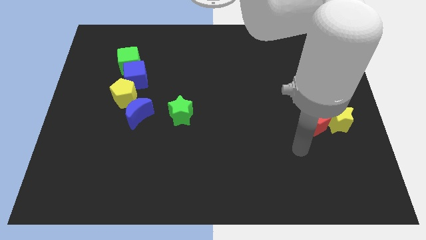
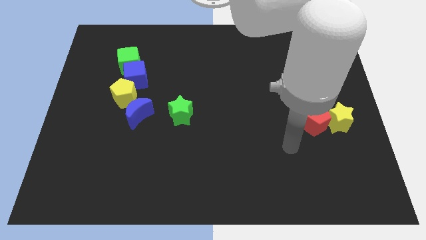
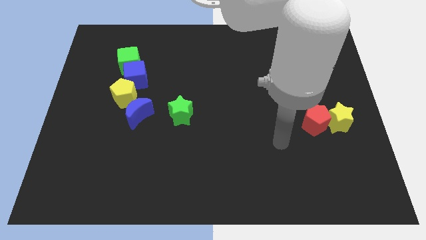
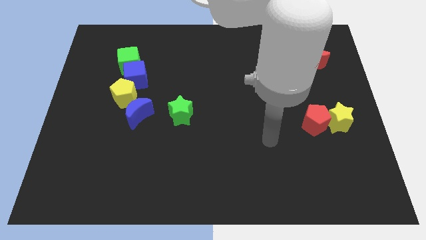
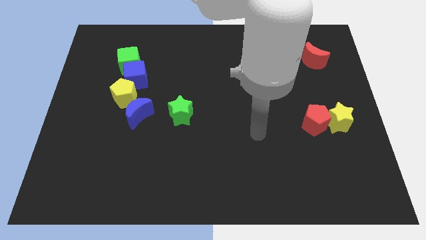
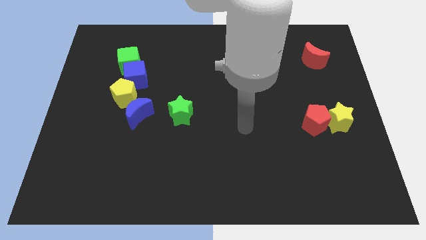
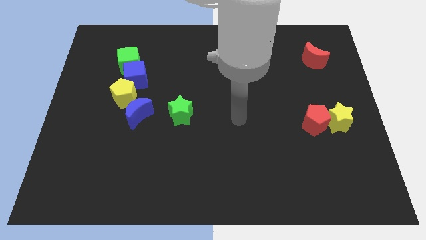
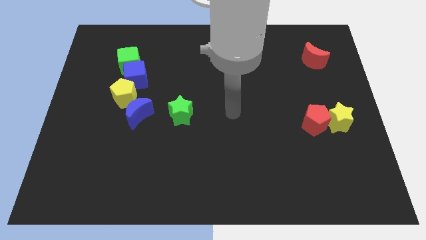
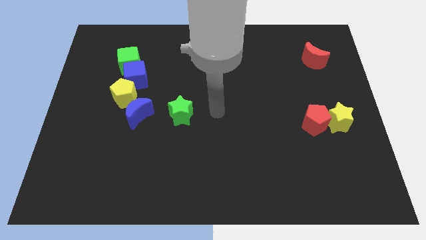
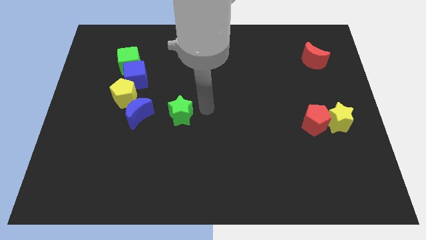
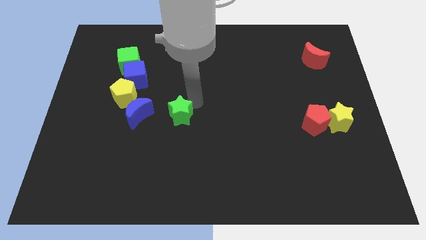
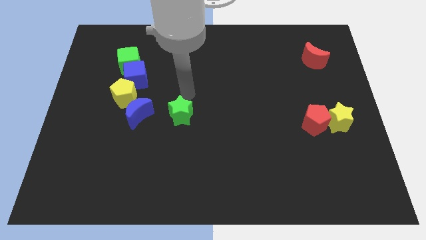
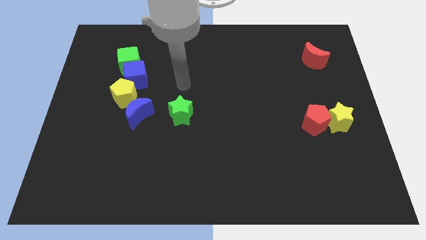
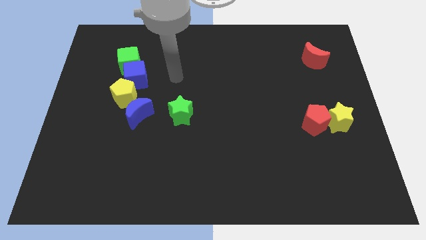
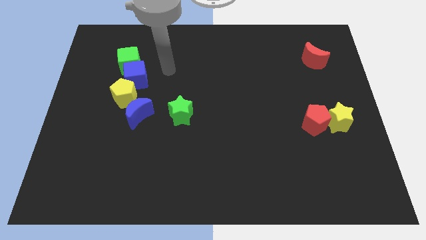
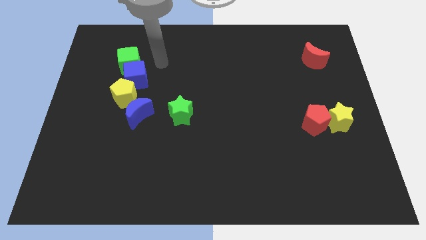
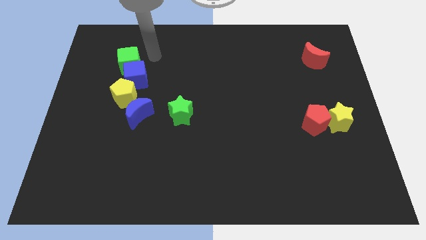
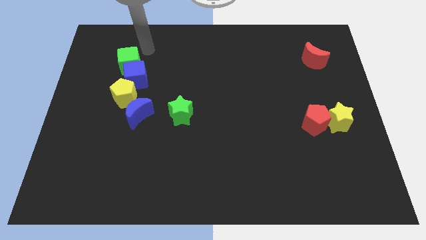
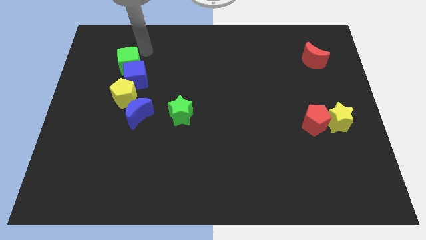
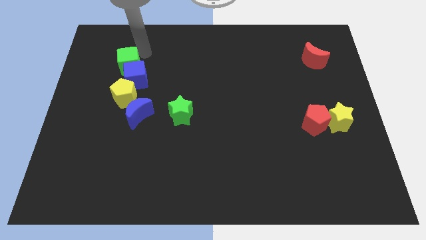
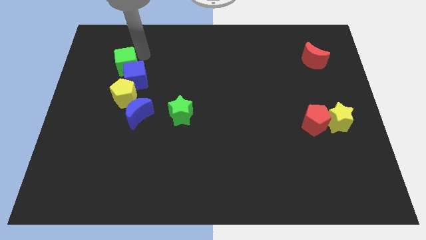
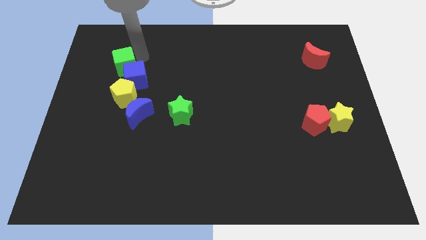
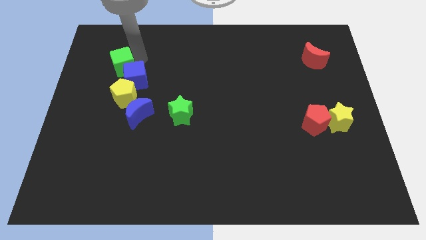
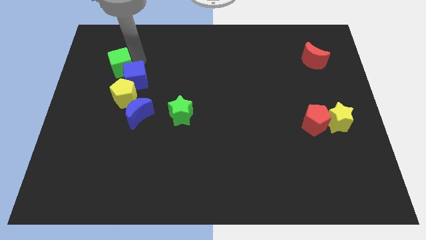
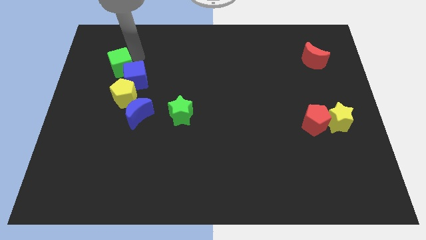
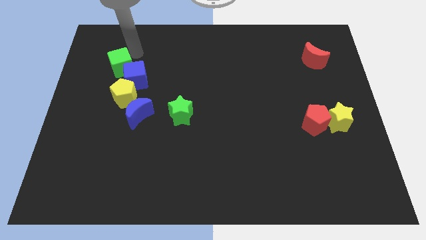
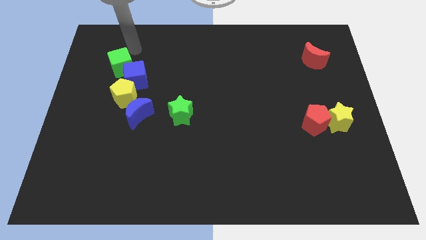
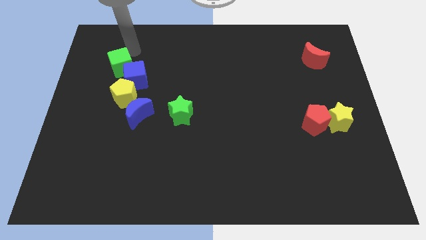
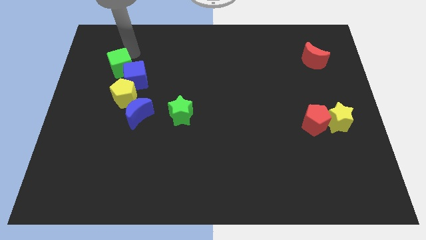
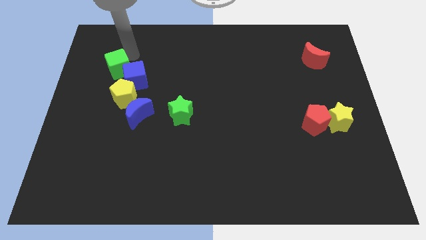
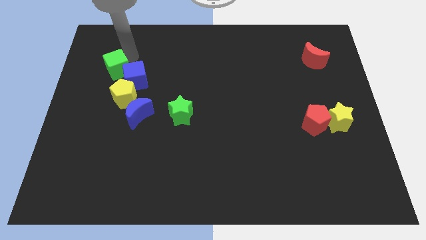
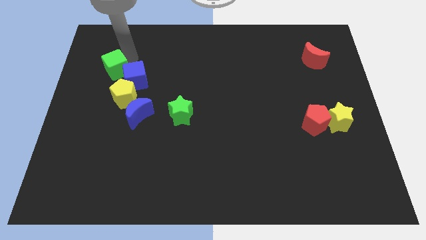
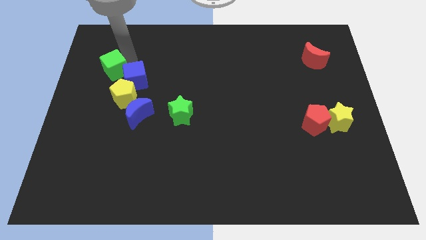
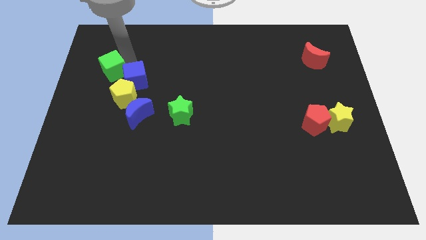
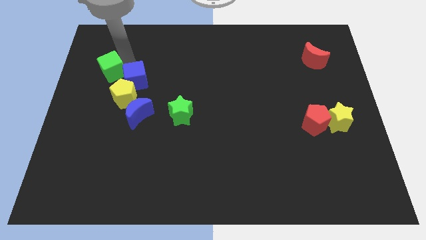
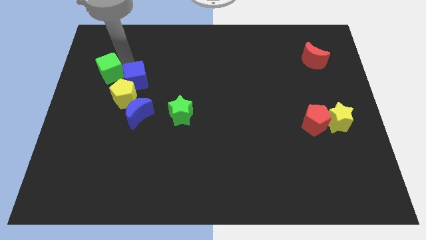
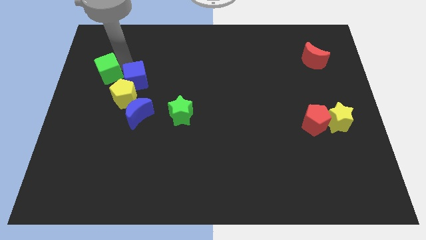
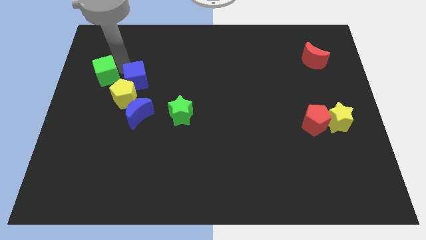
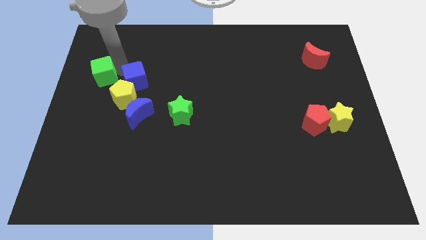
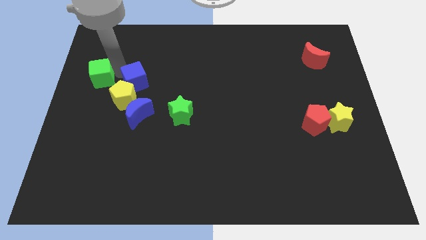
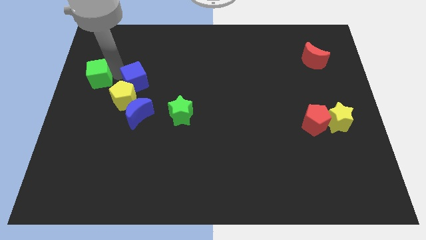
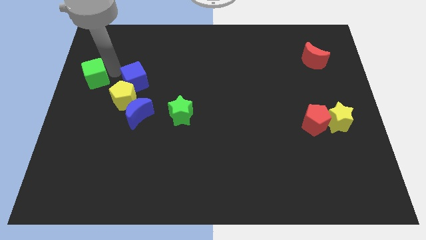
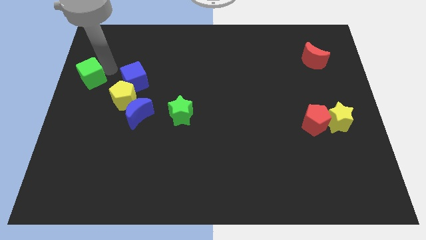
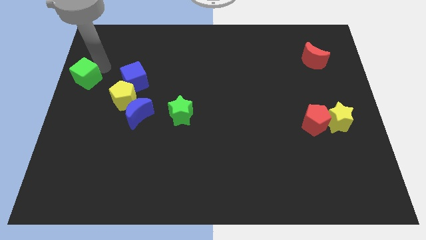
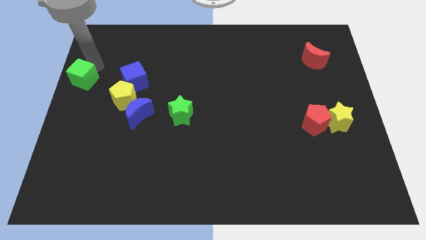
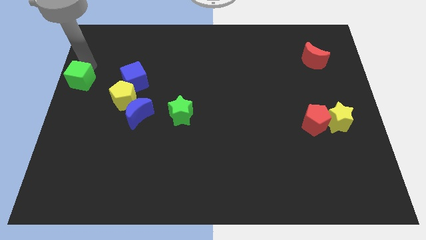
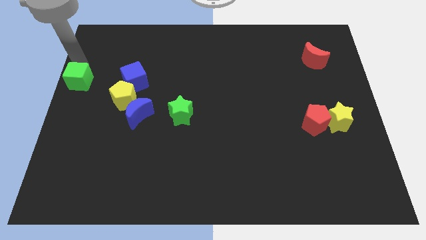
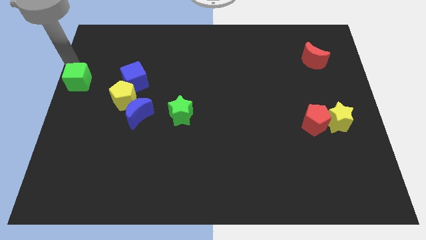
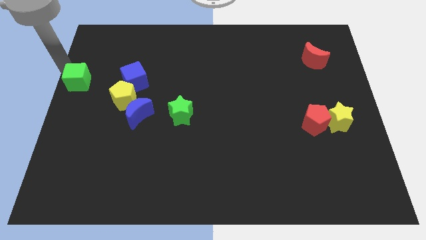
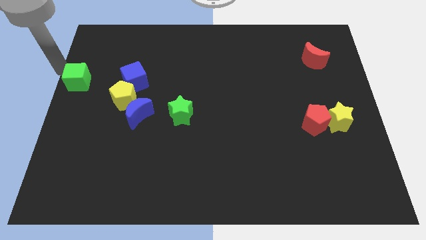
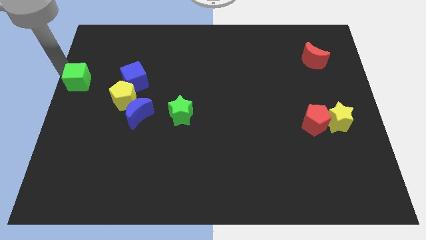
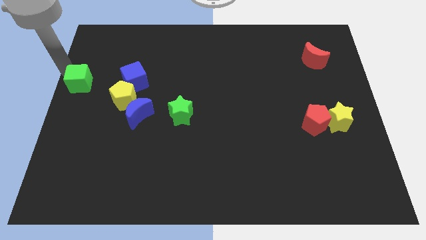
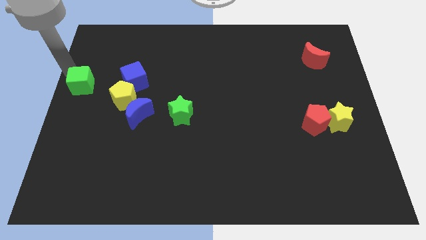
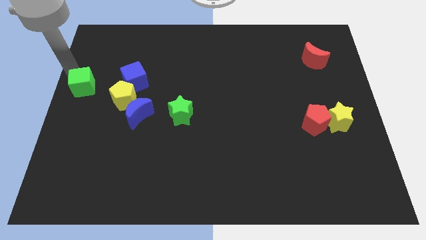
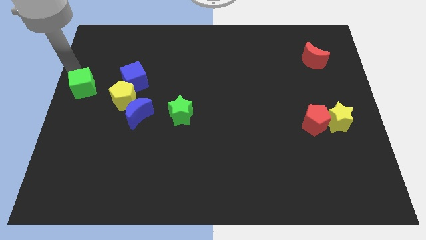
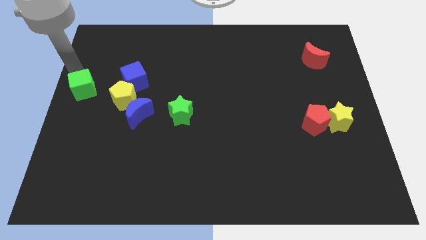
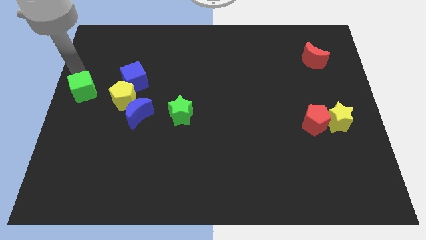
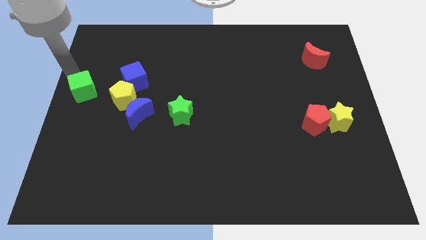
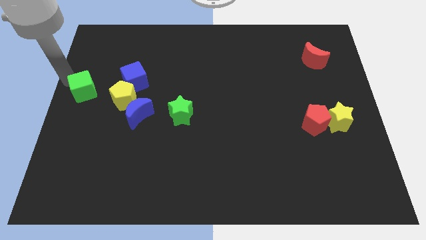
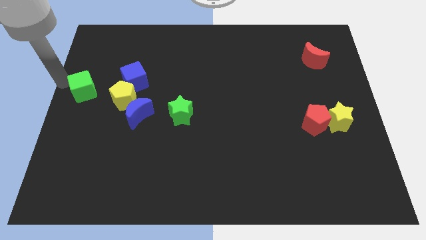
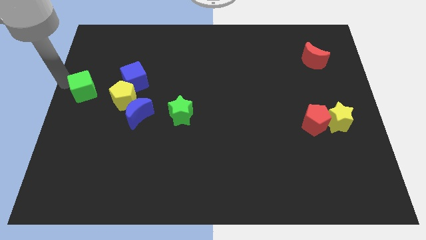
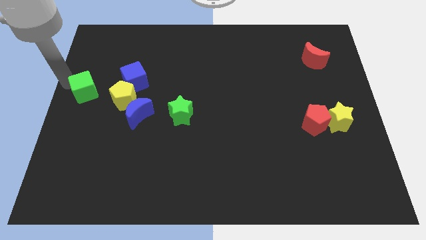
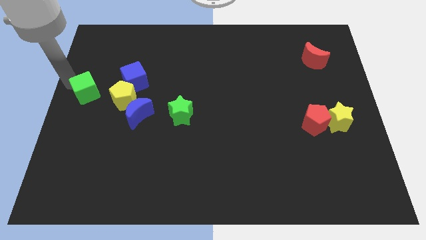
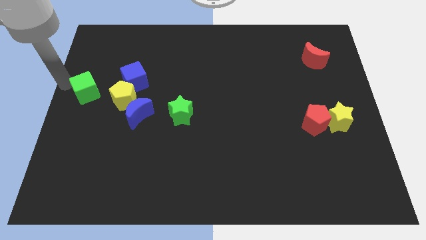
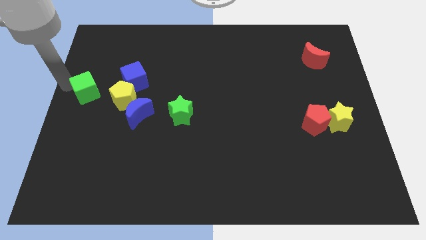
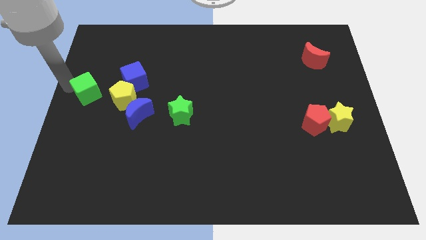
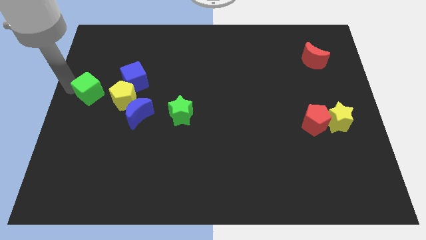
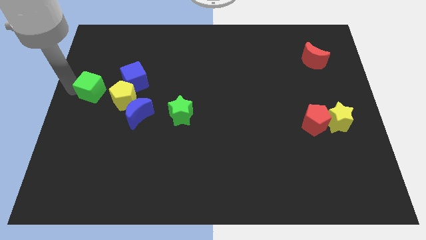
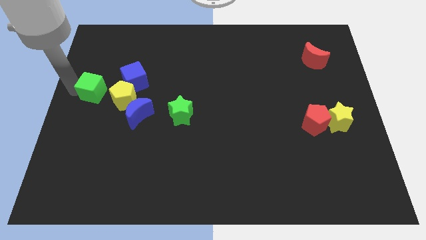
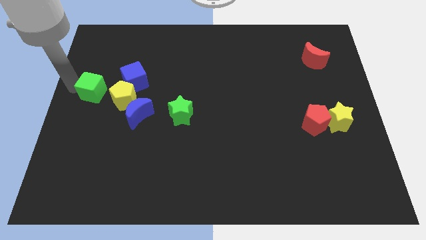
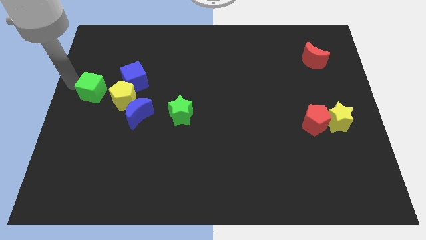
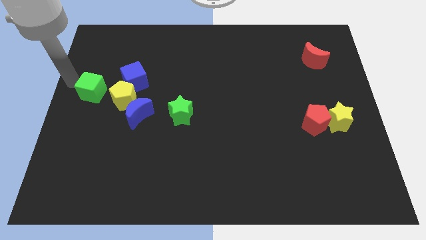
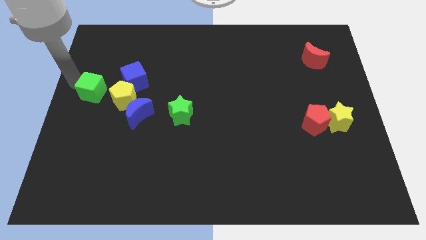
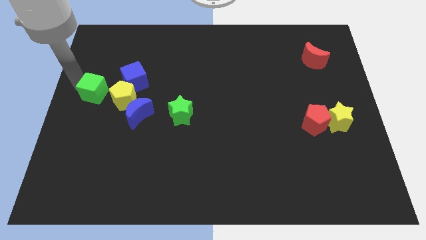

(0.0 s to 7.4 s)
slightly slide the green cube down

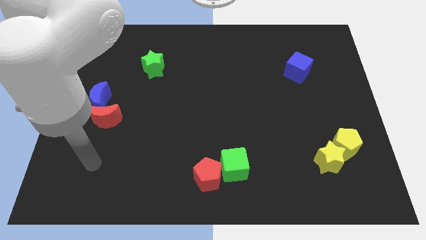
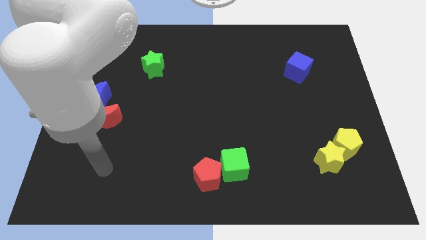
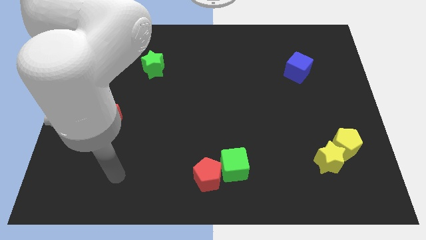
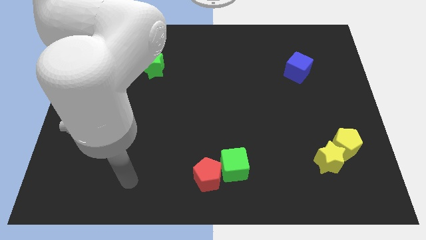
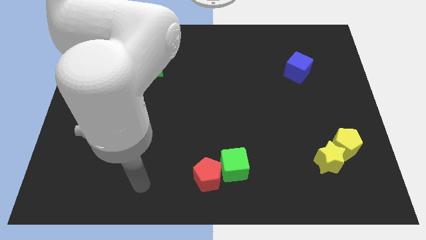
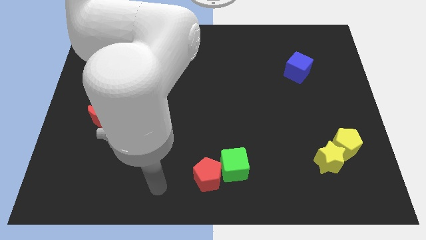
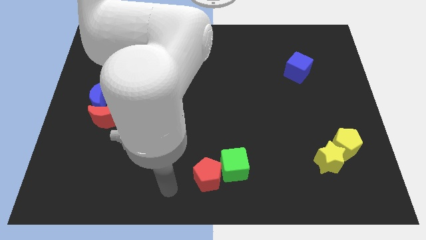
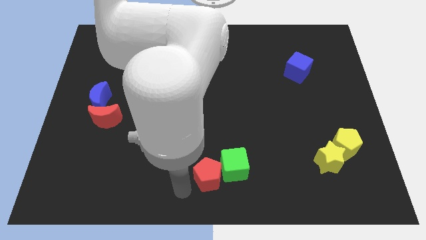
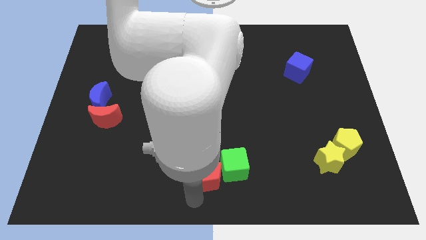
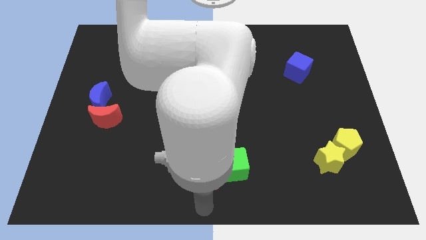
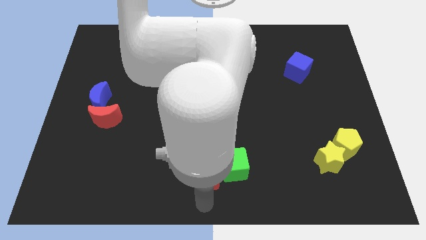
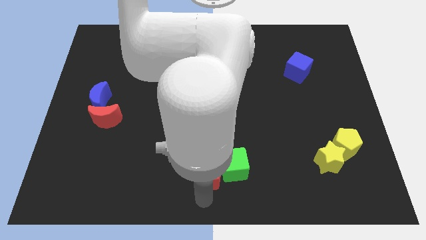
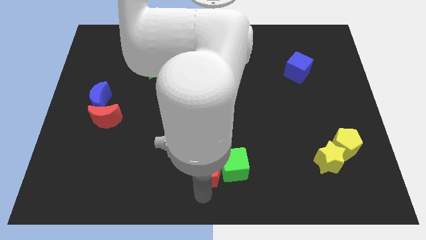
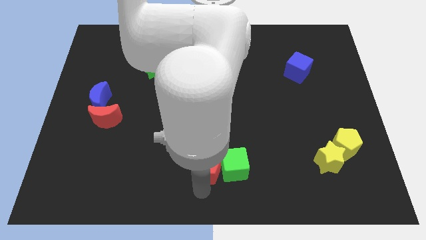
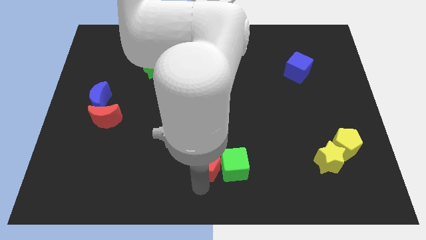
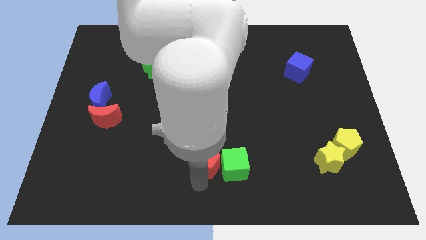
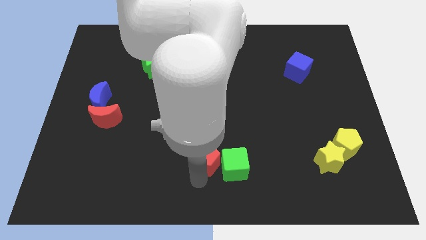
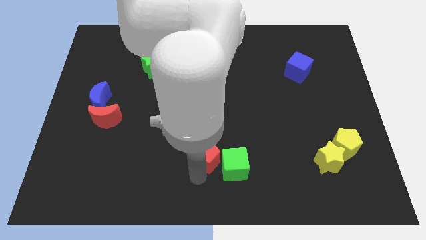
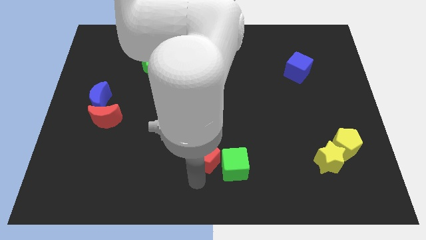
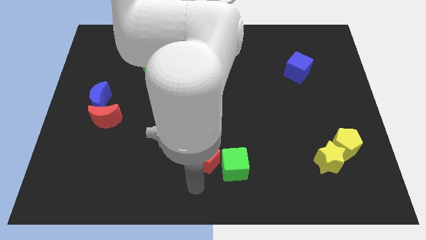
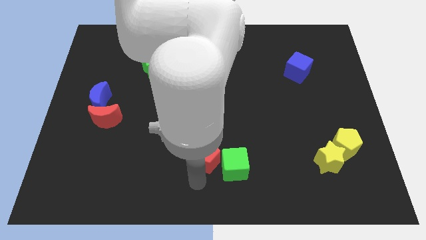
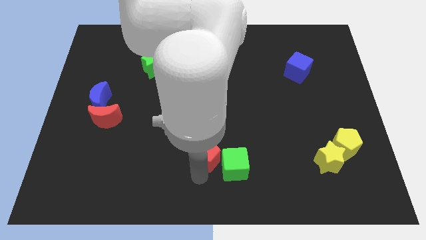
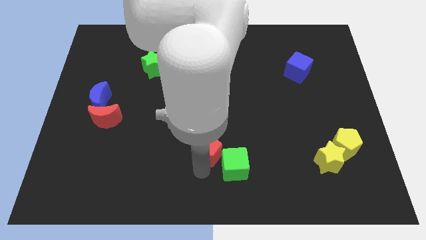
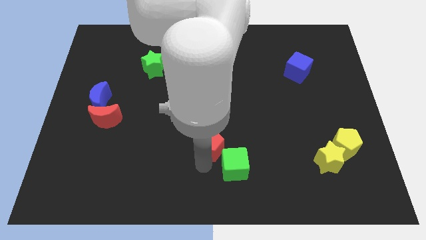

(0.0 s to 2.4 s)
move the red pentagon upwards slightly
